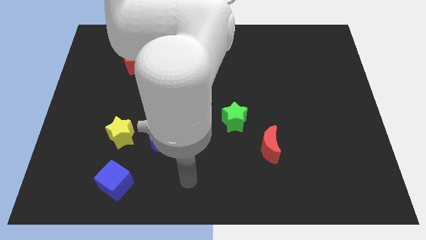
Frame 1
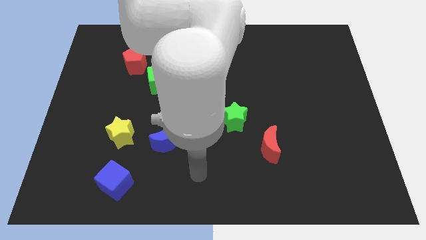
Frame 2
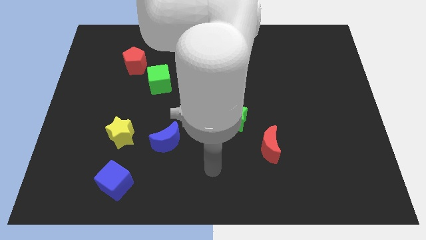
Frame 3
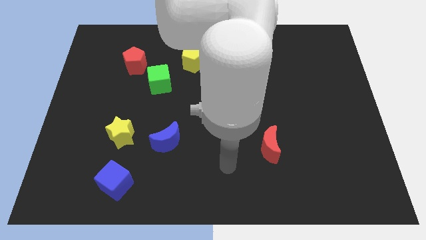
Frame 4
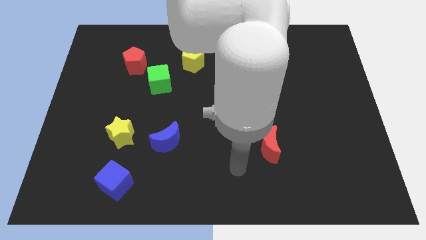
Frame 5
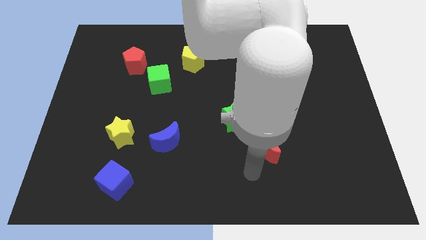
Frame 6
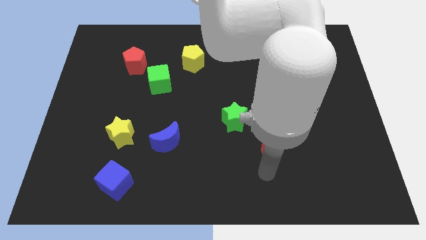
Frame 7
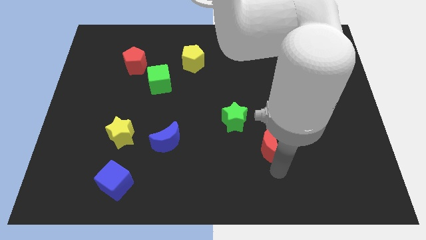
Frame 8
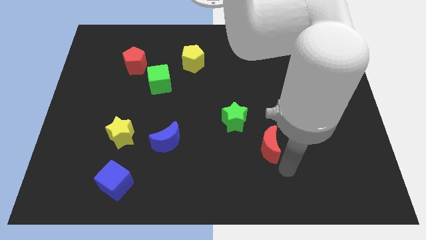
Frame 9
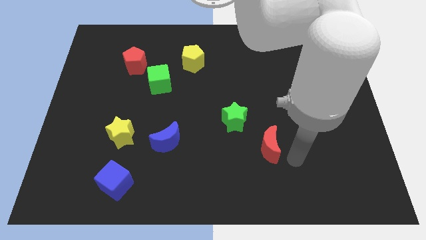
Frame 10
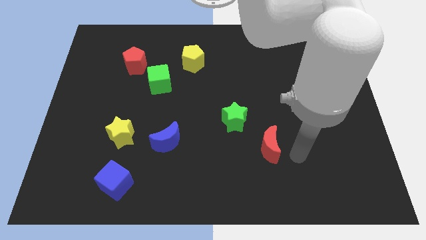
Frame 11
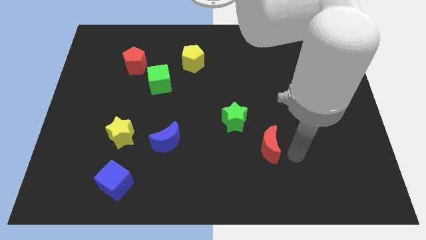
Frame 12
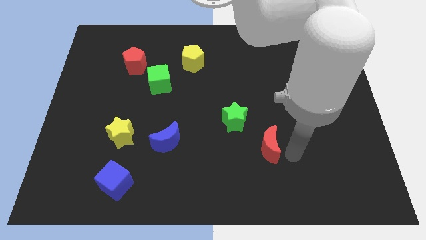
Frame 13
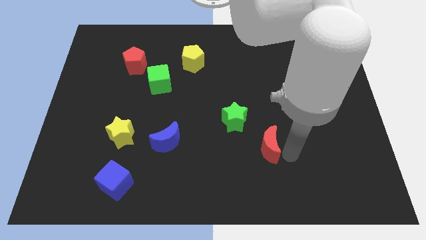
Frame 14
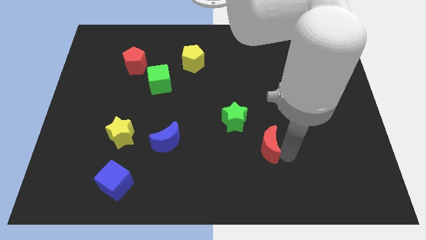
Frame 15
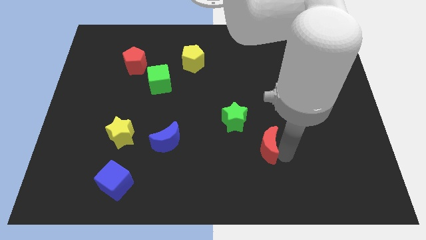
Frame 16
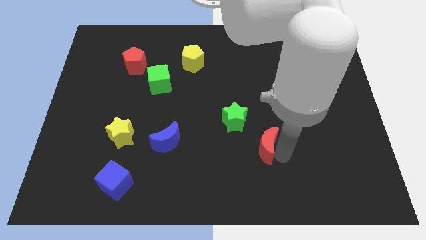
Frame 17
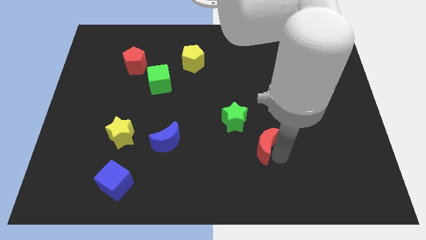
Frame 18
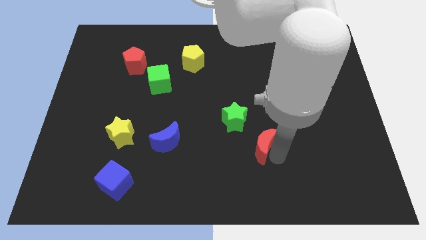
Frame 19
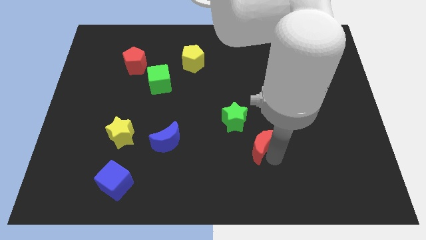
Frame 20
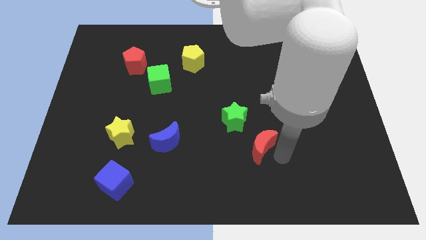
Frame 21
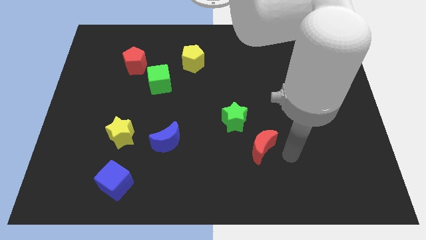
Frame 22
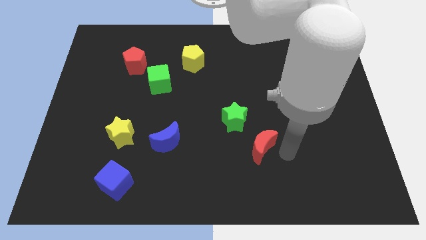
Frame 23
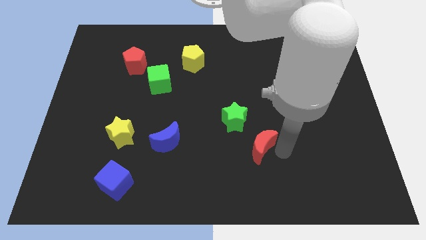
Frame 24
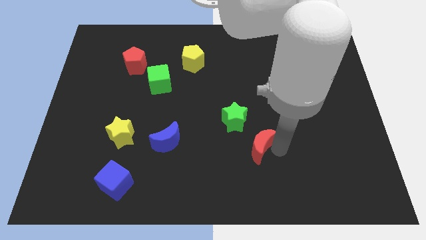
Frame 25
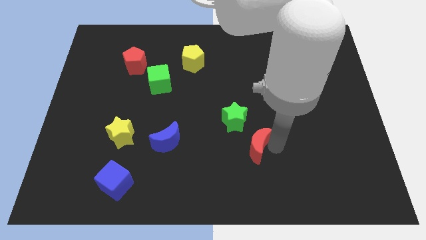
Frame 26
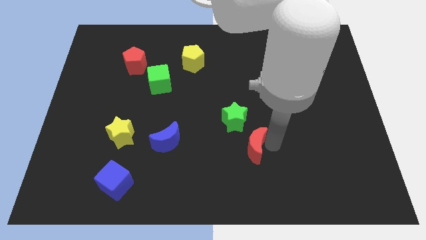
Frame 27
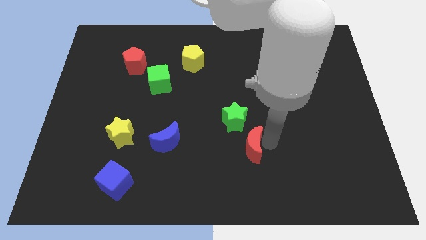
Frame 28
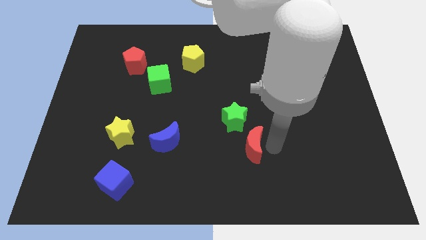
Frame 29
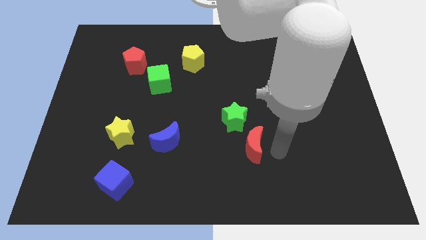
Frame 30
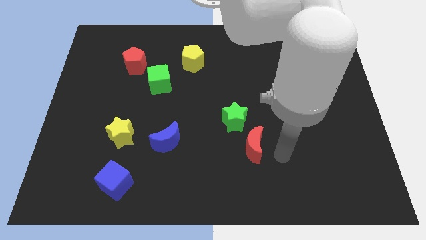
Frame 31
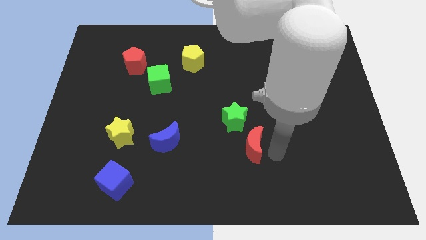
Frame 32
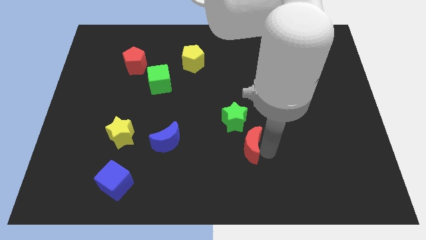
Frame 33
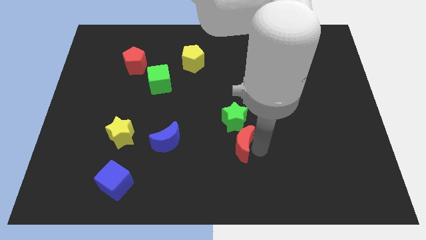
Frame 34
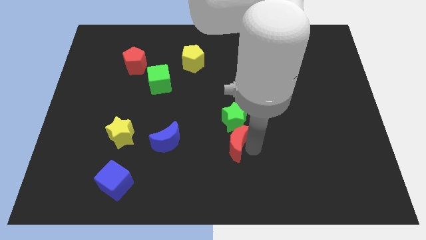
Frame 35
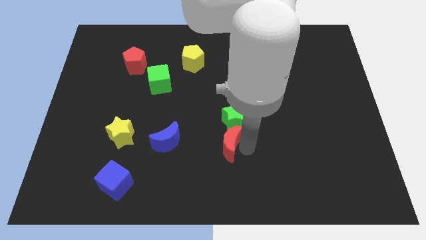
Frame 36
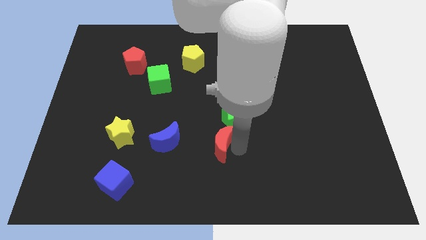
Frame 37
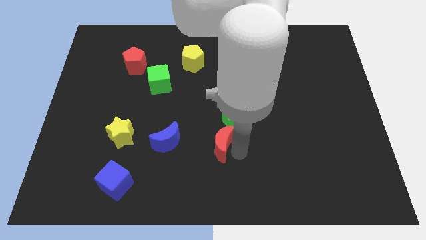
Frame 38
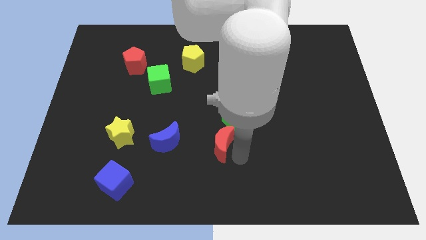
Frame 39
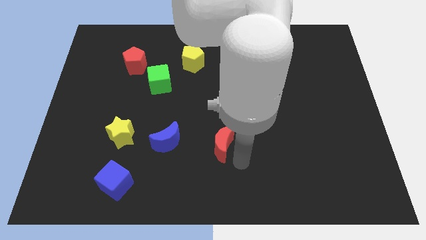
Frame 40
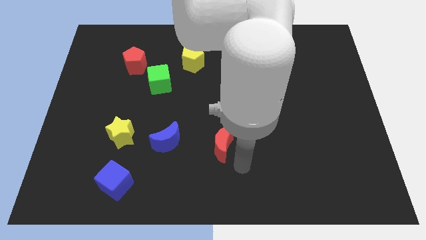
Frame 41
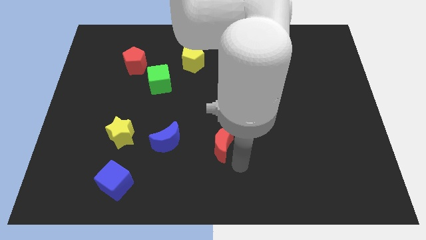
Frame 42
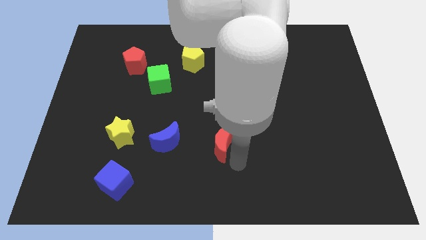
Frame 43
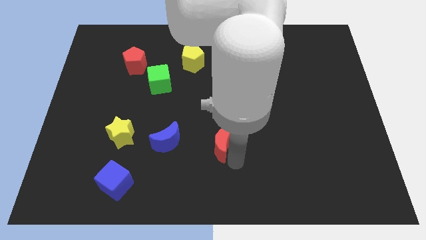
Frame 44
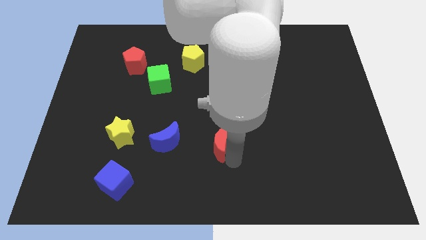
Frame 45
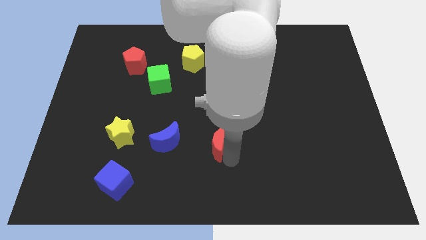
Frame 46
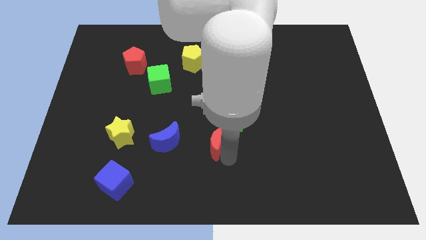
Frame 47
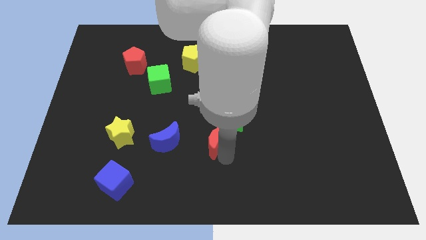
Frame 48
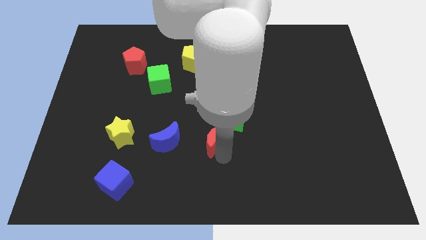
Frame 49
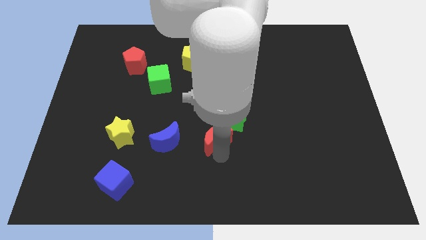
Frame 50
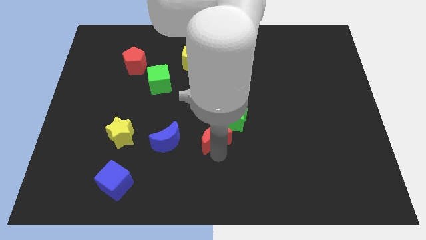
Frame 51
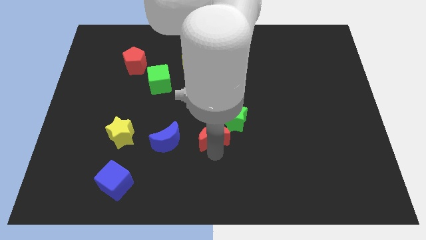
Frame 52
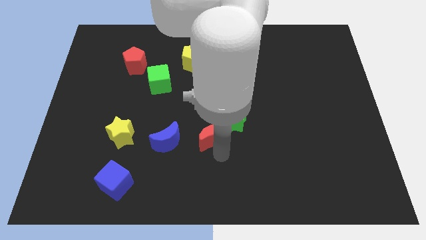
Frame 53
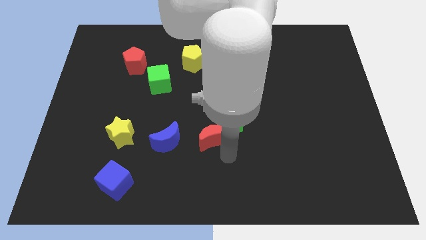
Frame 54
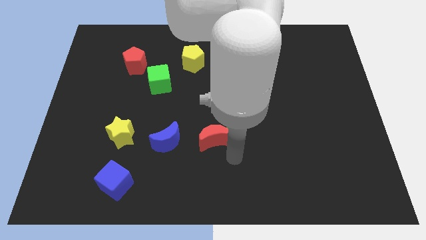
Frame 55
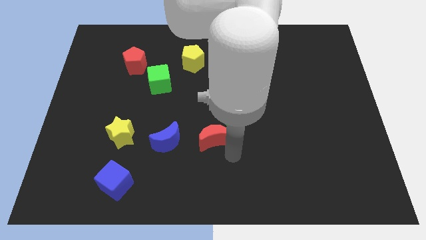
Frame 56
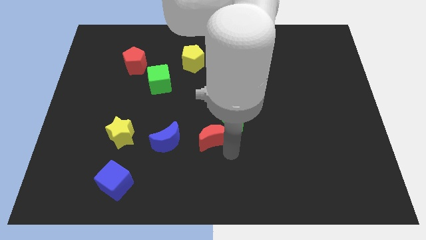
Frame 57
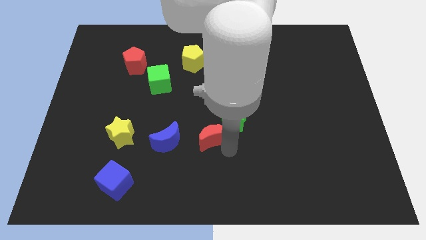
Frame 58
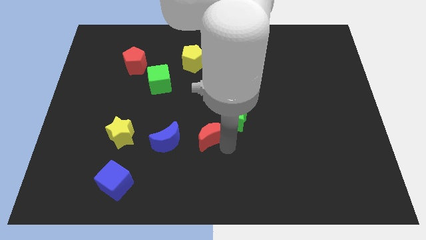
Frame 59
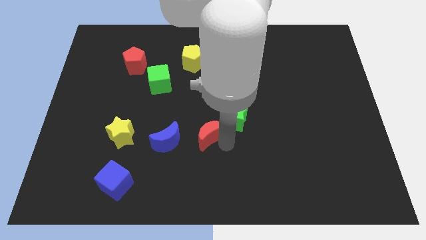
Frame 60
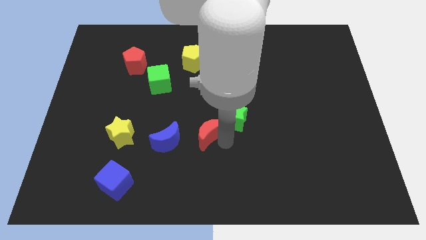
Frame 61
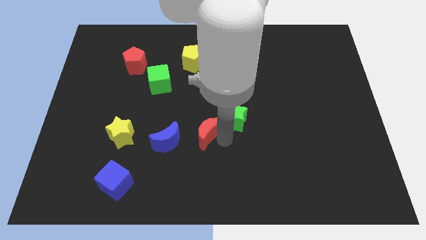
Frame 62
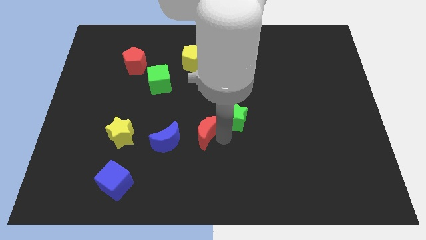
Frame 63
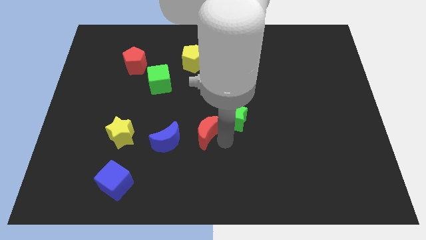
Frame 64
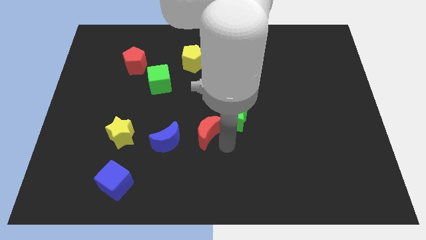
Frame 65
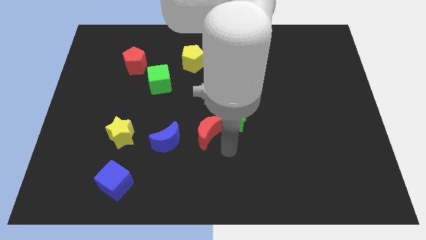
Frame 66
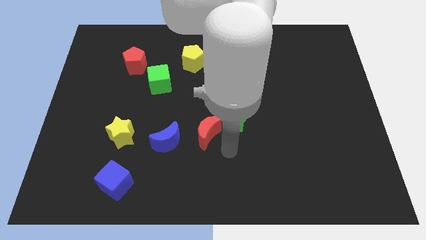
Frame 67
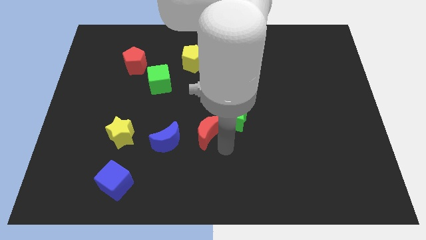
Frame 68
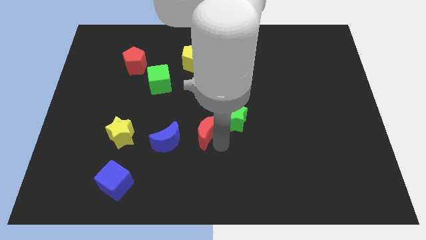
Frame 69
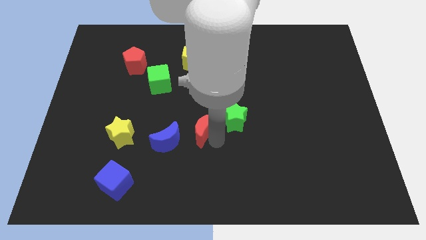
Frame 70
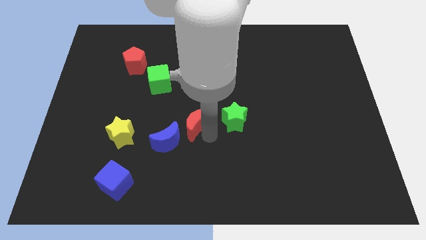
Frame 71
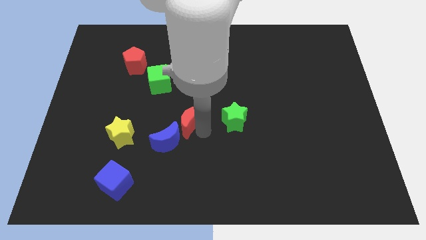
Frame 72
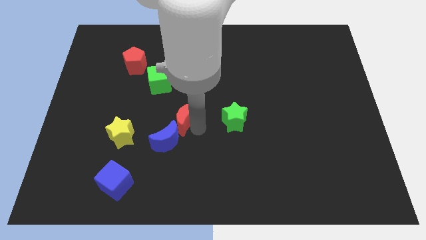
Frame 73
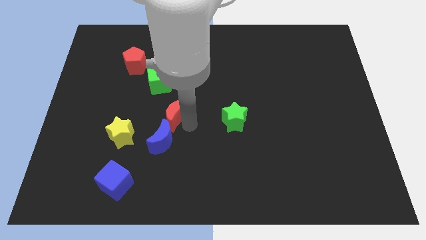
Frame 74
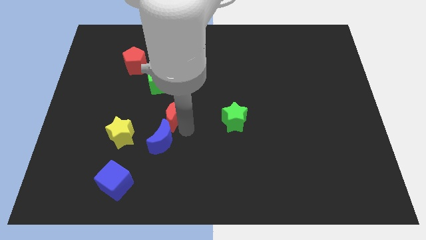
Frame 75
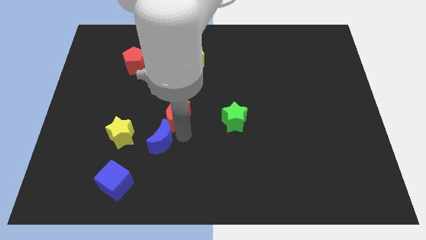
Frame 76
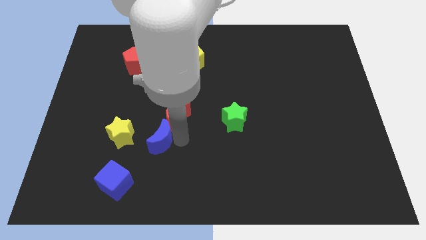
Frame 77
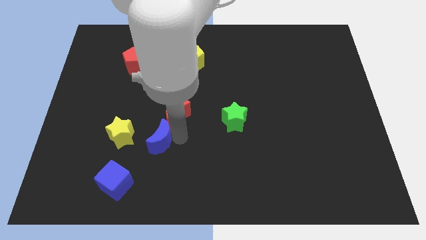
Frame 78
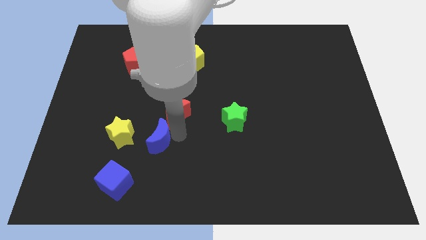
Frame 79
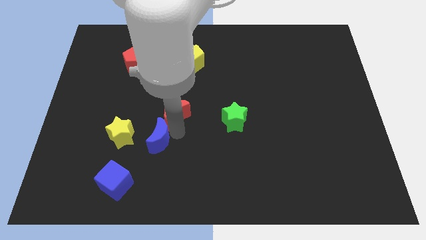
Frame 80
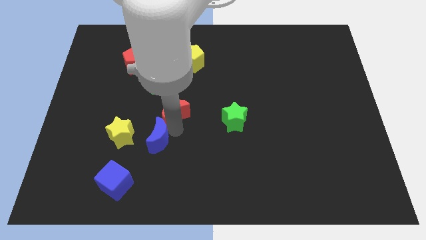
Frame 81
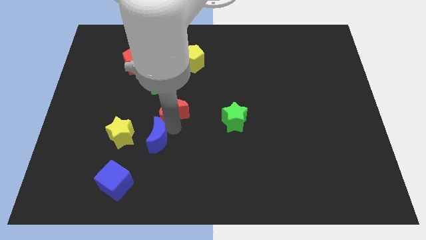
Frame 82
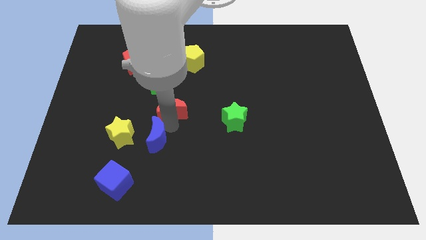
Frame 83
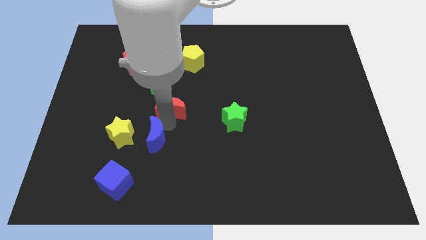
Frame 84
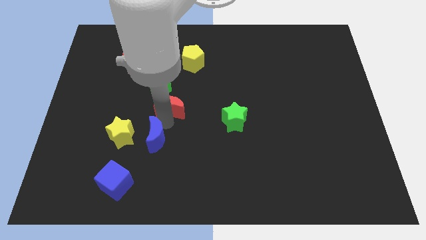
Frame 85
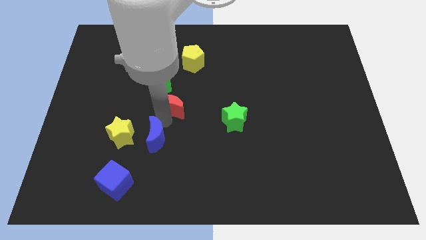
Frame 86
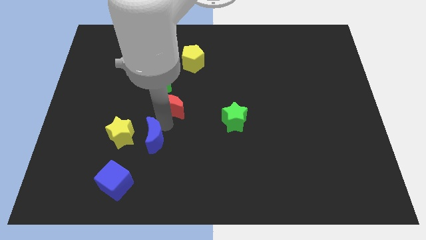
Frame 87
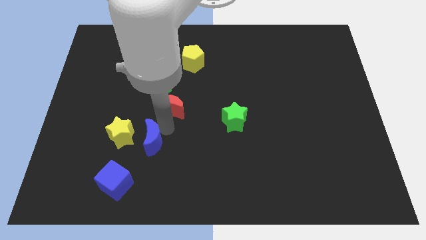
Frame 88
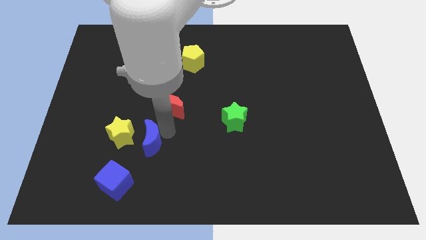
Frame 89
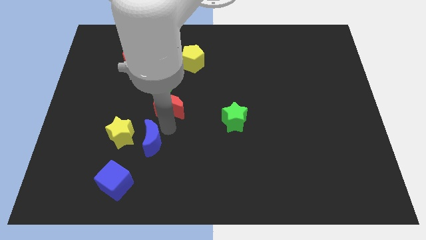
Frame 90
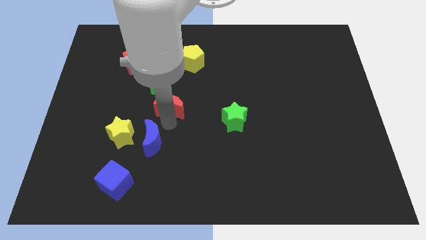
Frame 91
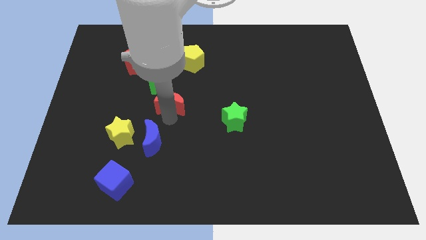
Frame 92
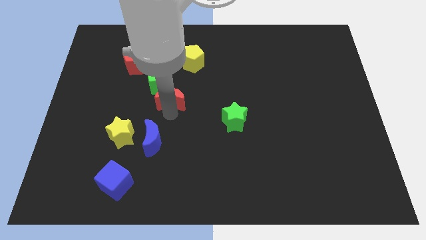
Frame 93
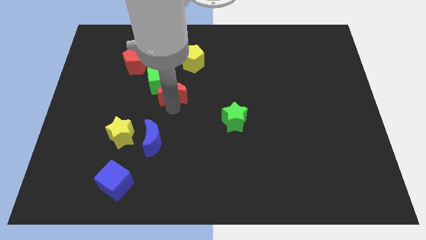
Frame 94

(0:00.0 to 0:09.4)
slide the red moon to the green cube
